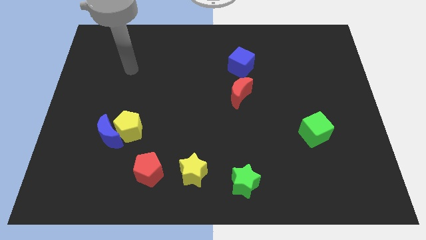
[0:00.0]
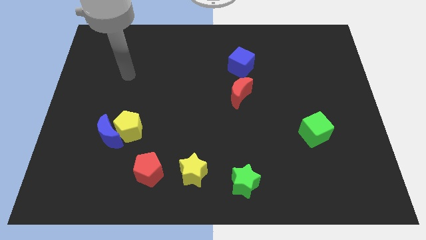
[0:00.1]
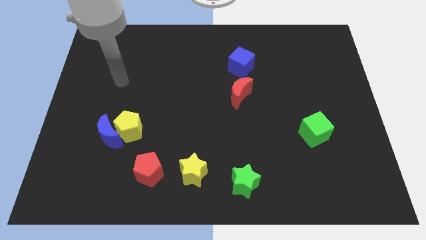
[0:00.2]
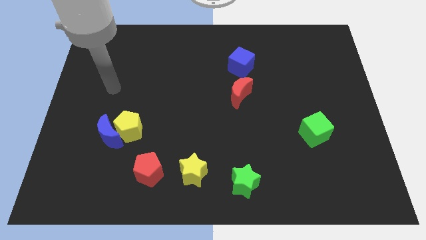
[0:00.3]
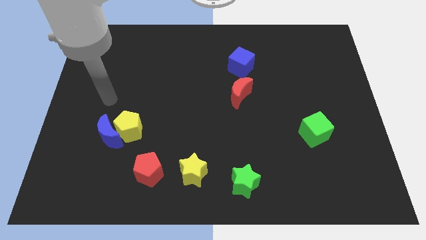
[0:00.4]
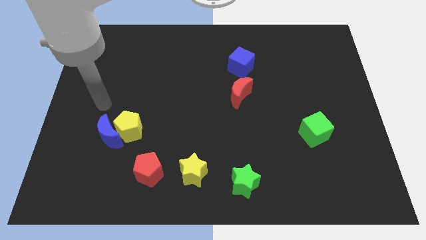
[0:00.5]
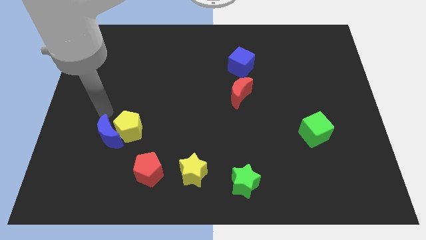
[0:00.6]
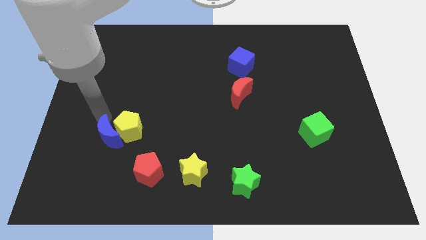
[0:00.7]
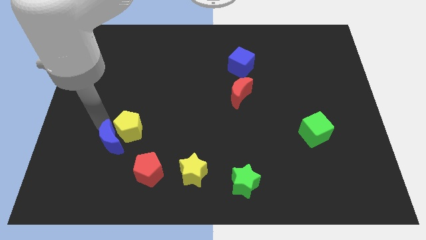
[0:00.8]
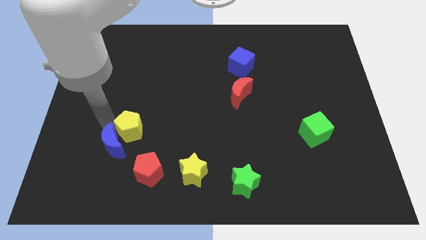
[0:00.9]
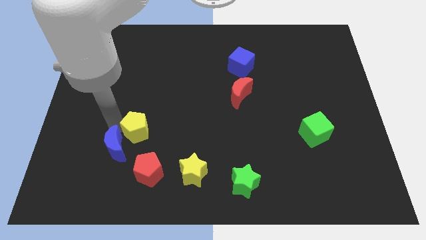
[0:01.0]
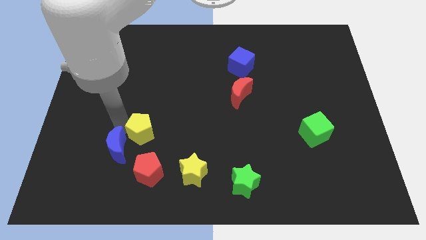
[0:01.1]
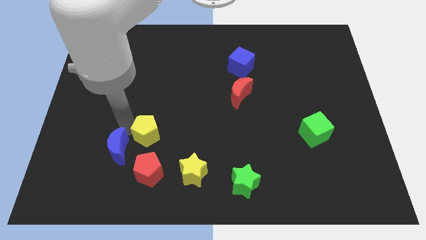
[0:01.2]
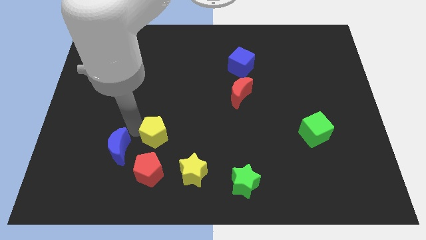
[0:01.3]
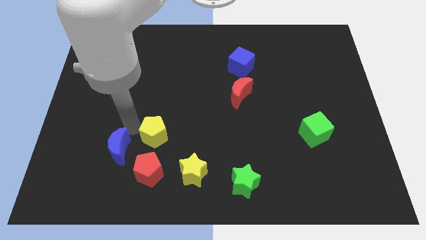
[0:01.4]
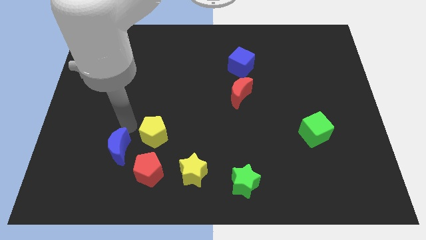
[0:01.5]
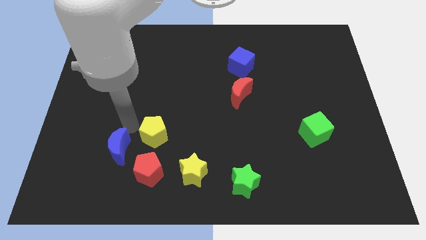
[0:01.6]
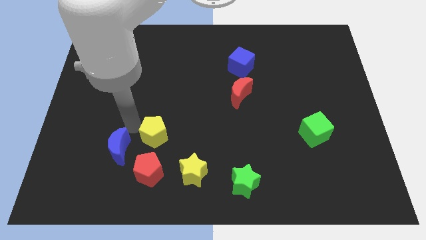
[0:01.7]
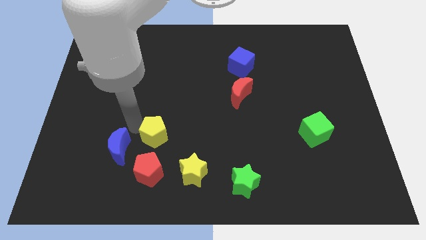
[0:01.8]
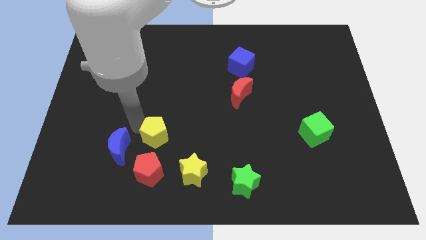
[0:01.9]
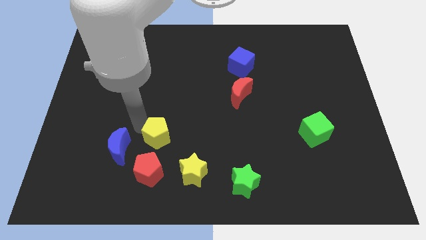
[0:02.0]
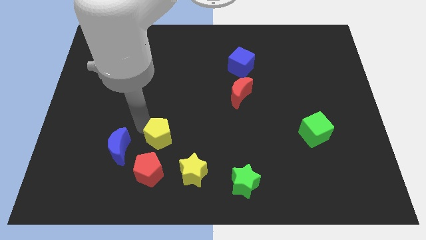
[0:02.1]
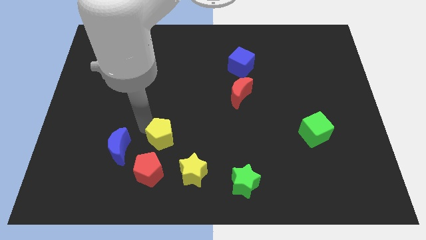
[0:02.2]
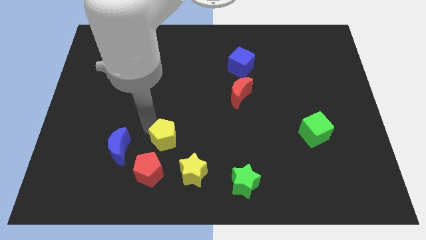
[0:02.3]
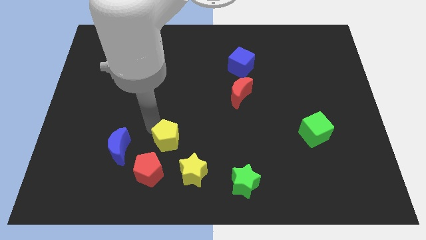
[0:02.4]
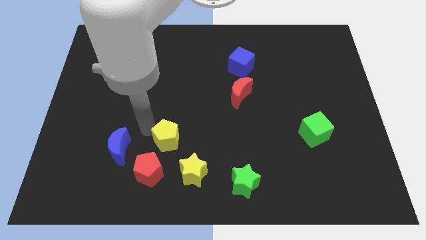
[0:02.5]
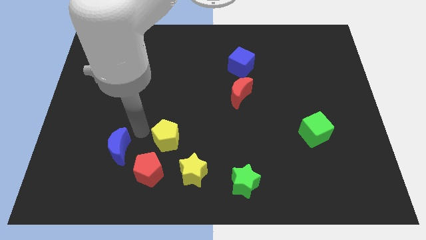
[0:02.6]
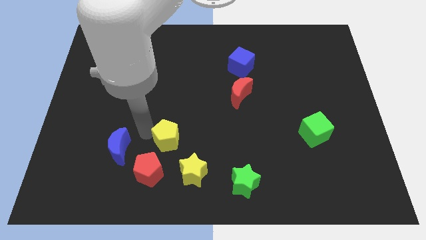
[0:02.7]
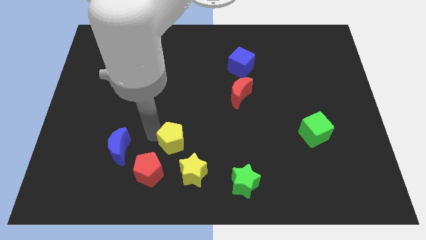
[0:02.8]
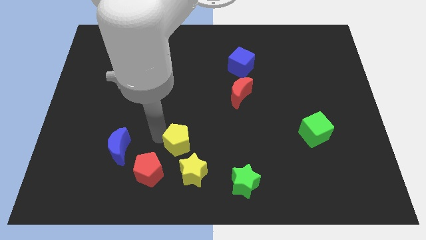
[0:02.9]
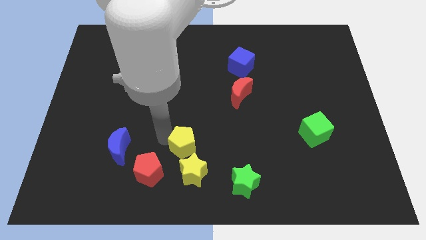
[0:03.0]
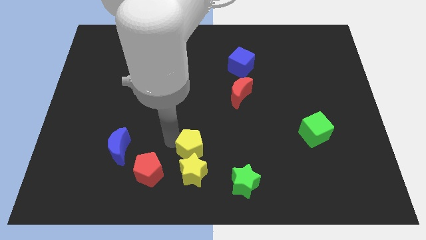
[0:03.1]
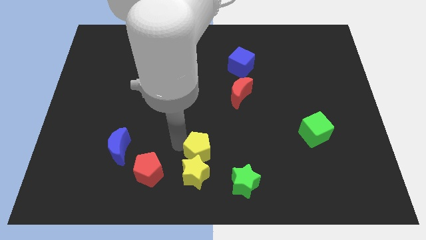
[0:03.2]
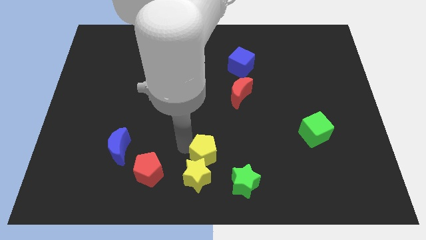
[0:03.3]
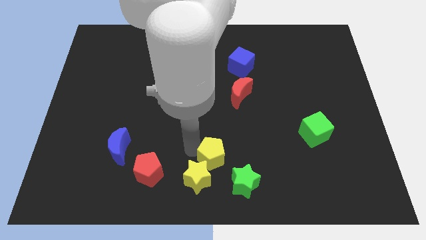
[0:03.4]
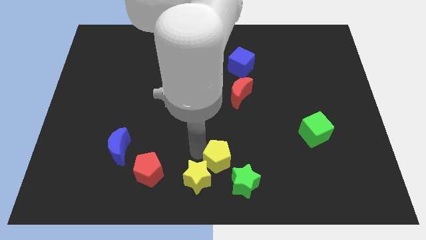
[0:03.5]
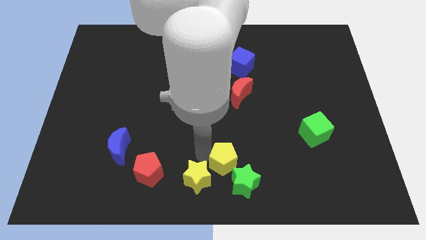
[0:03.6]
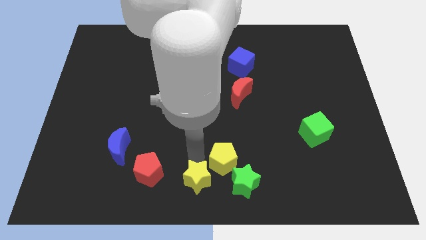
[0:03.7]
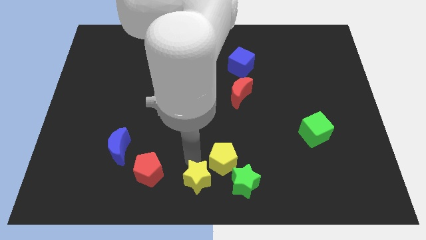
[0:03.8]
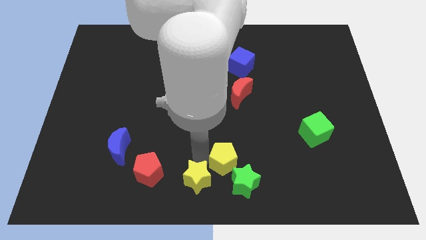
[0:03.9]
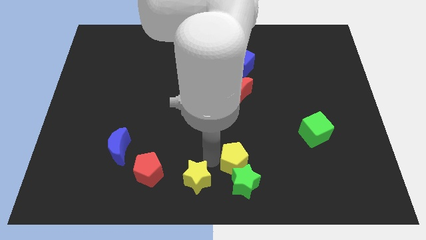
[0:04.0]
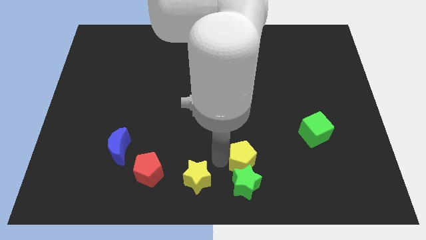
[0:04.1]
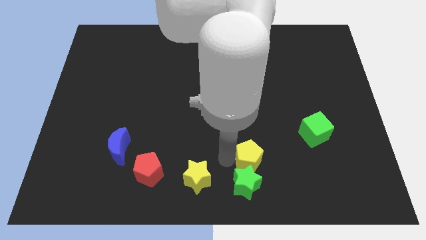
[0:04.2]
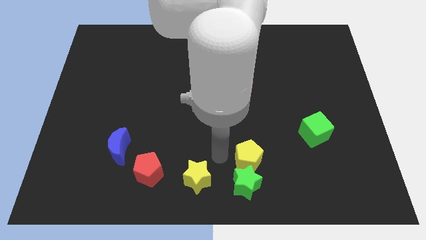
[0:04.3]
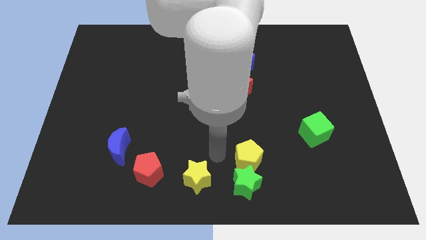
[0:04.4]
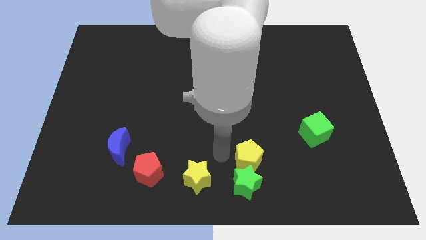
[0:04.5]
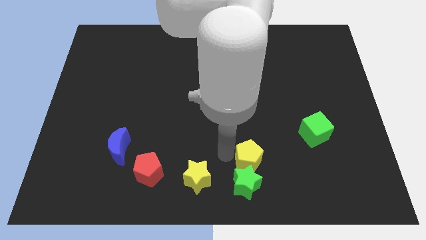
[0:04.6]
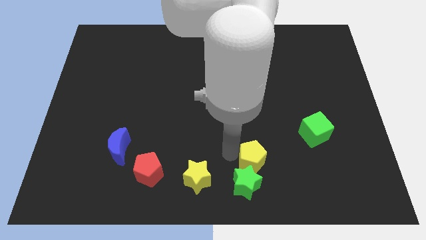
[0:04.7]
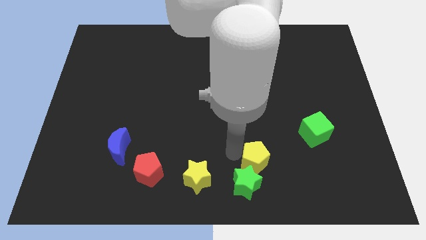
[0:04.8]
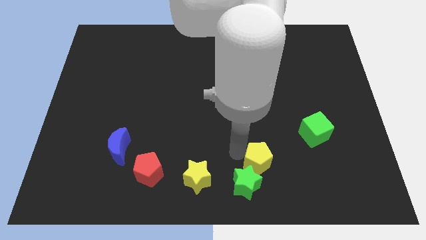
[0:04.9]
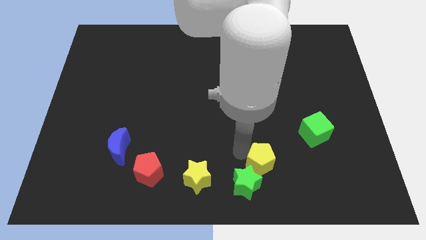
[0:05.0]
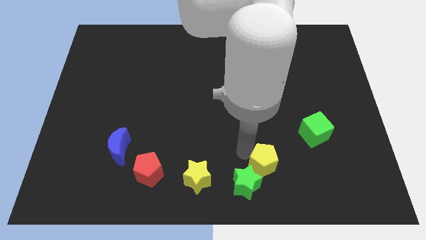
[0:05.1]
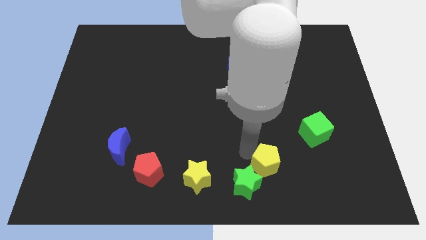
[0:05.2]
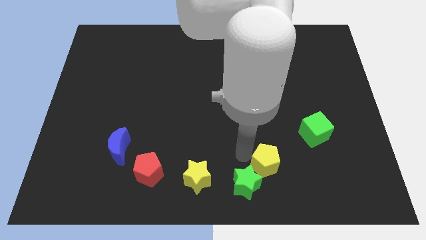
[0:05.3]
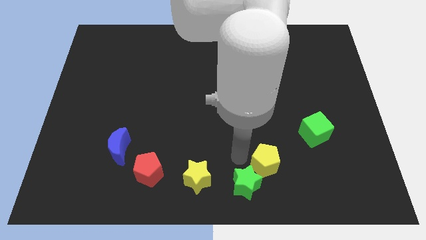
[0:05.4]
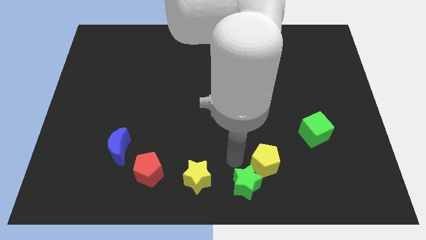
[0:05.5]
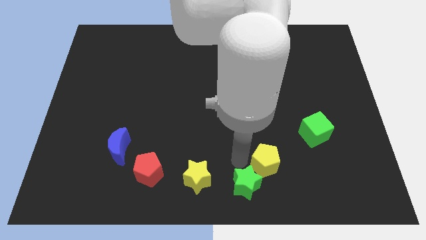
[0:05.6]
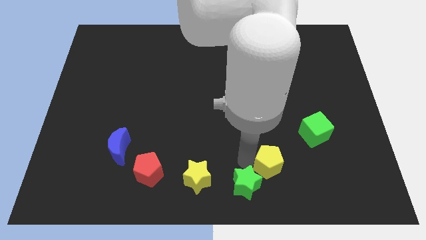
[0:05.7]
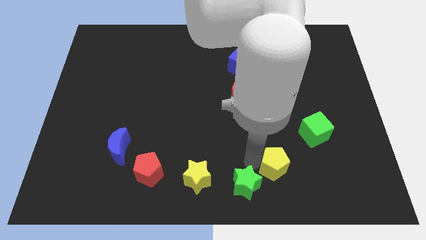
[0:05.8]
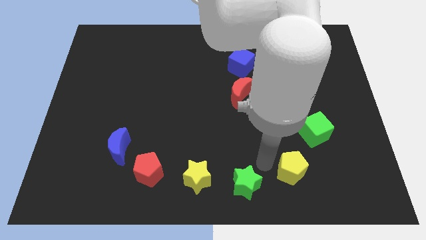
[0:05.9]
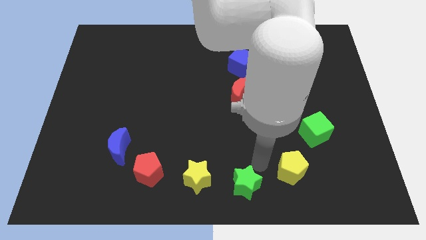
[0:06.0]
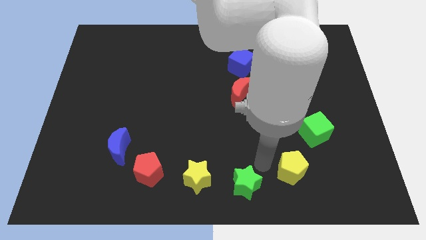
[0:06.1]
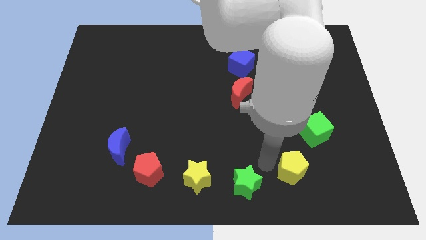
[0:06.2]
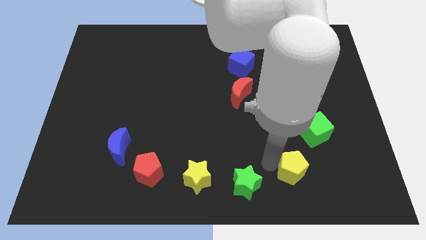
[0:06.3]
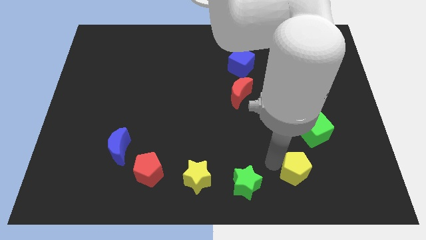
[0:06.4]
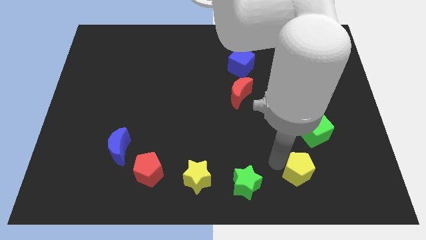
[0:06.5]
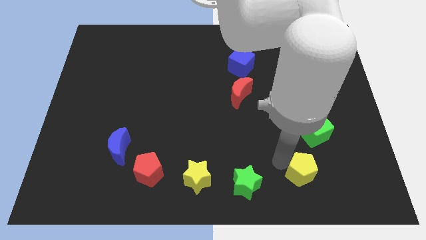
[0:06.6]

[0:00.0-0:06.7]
put the yellow pentagon to the bottom of the green cube
